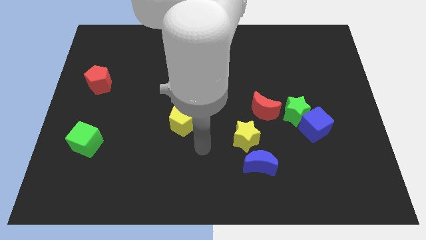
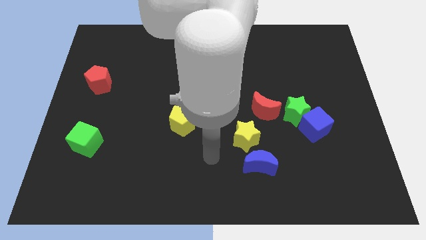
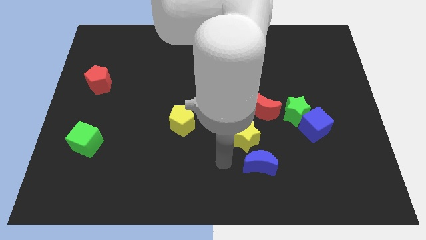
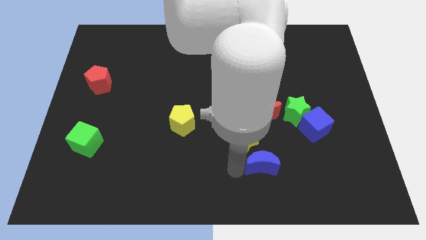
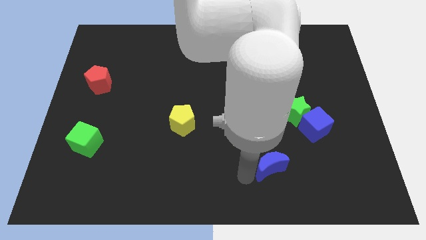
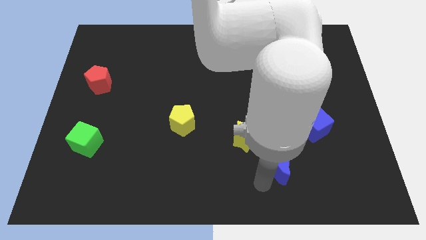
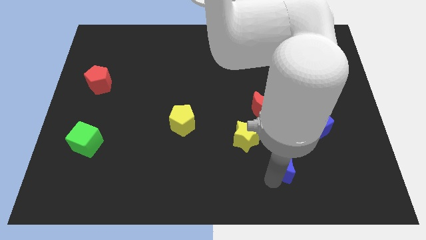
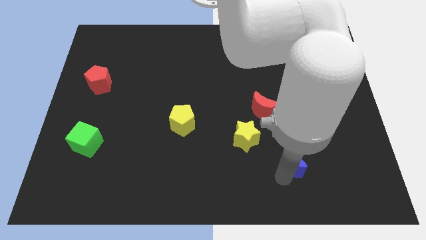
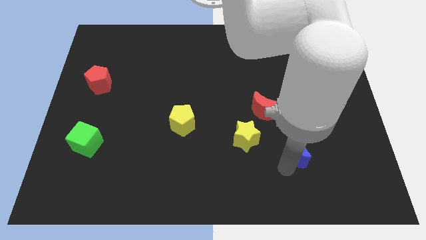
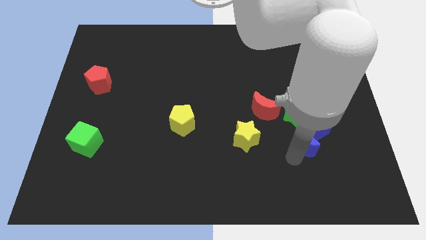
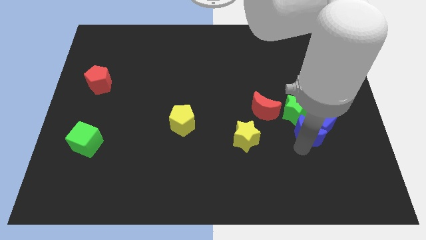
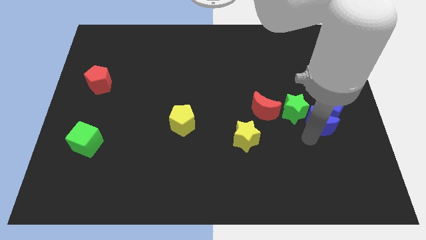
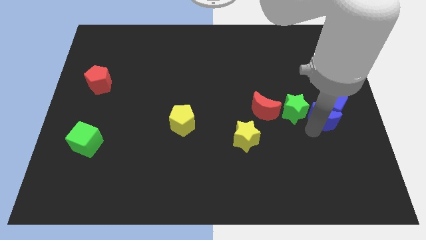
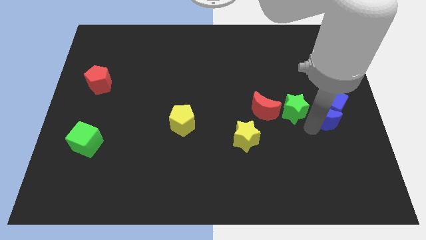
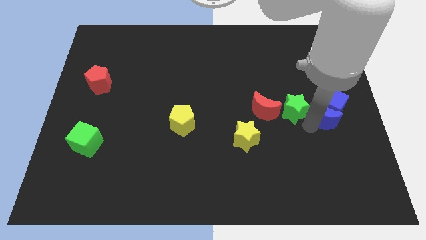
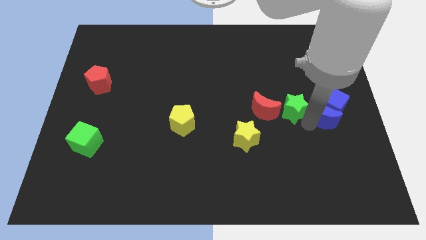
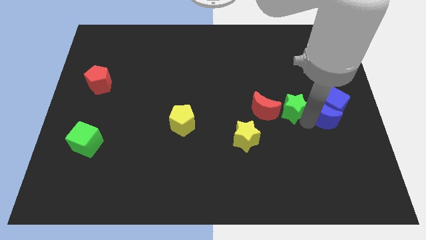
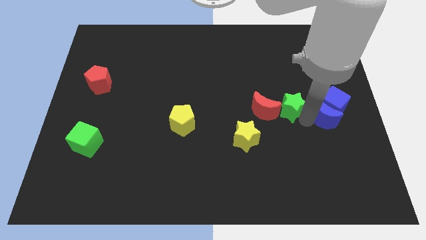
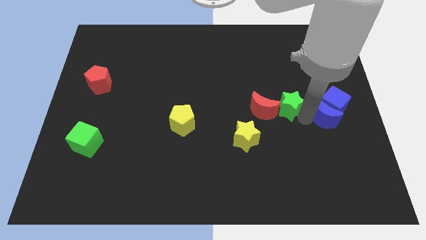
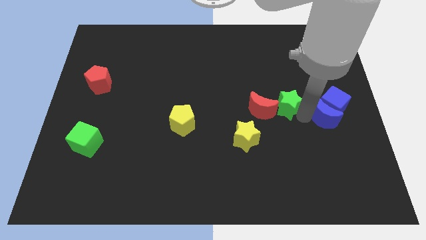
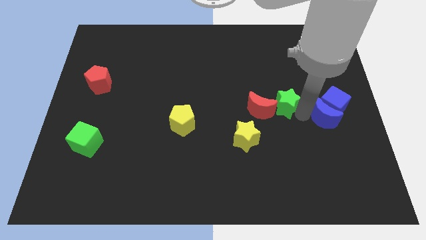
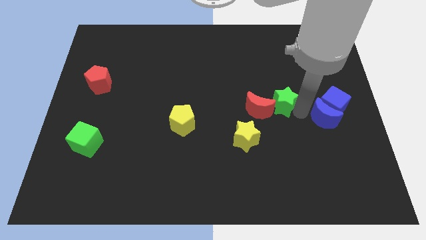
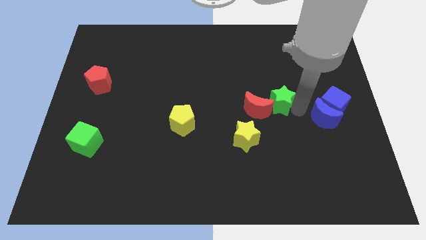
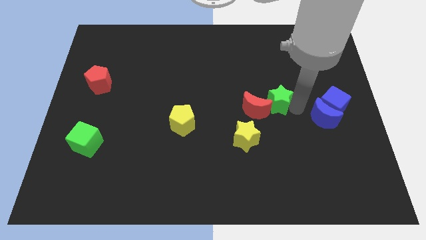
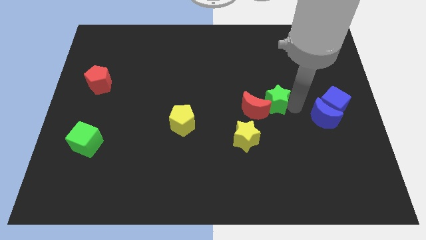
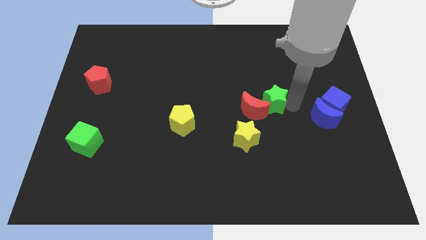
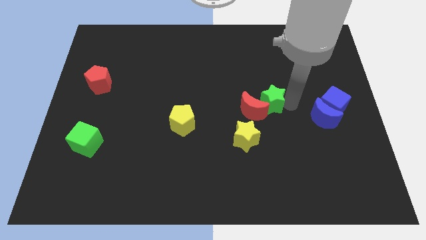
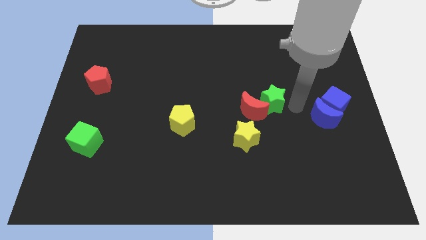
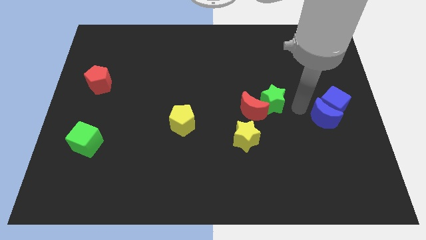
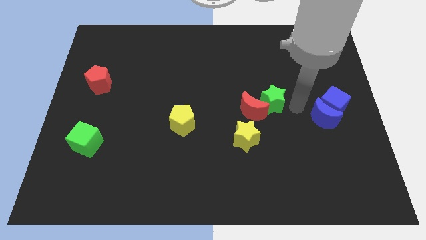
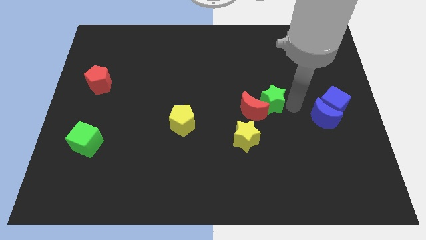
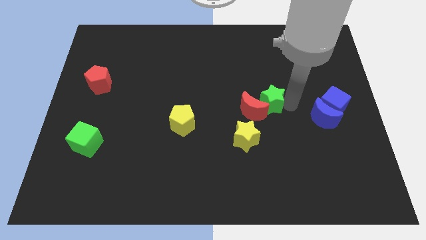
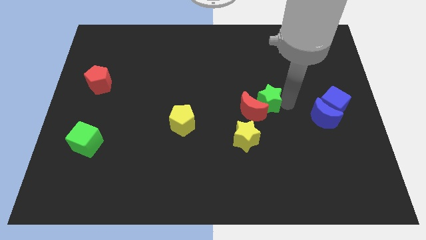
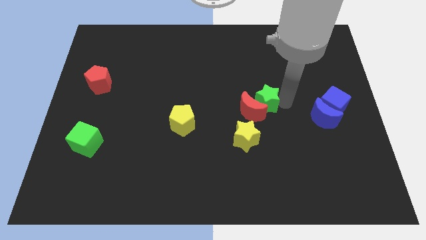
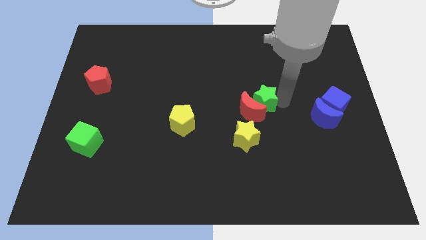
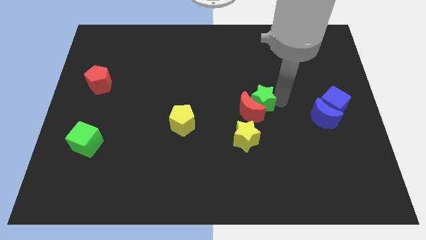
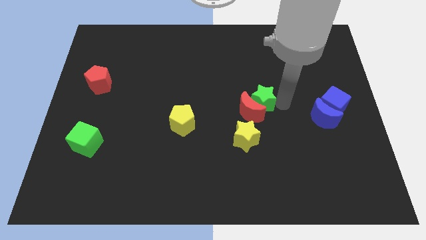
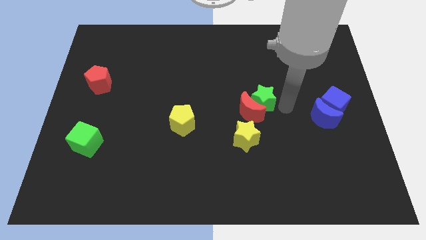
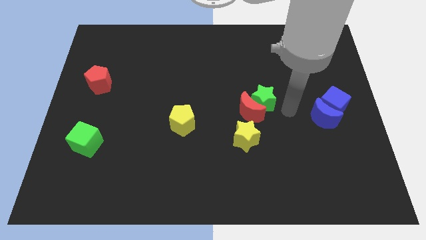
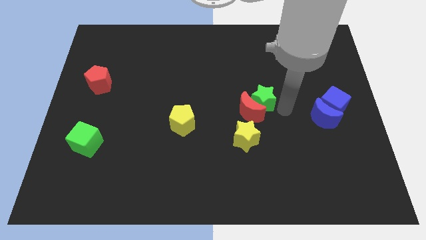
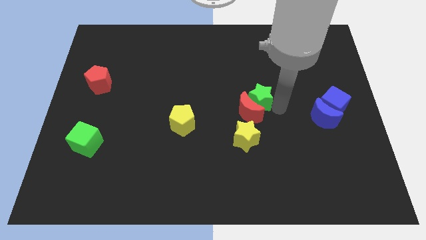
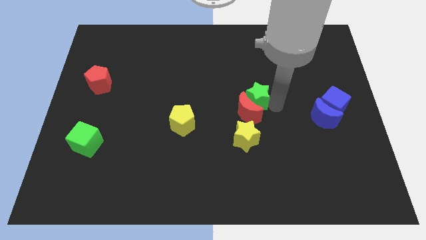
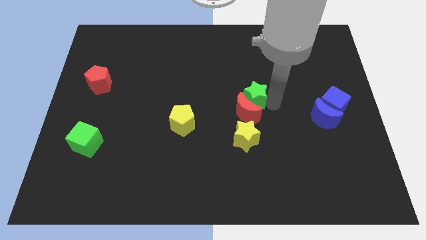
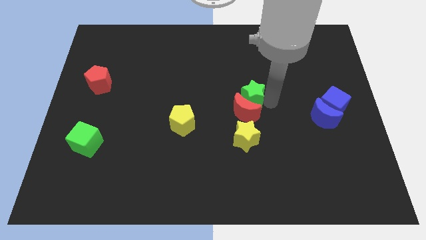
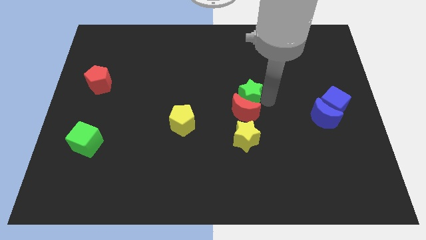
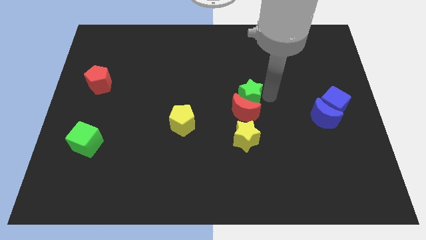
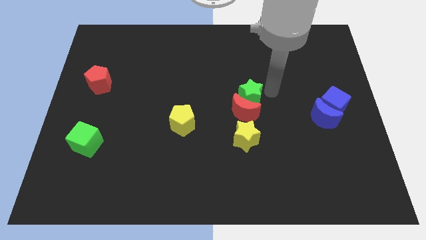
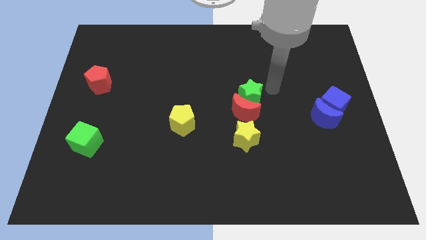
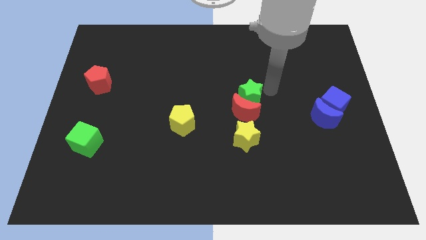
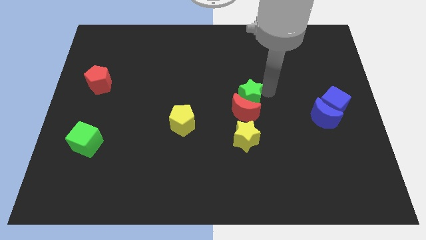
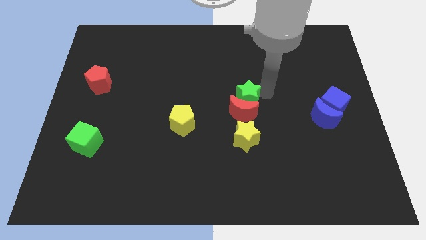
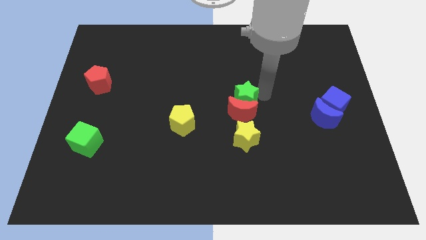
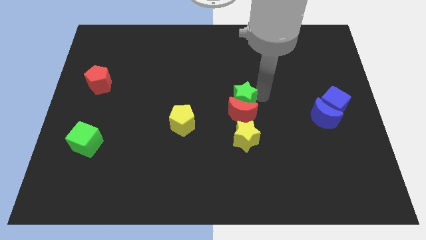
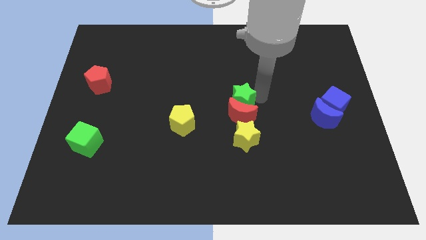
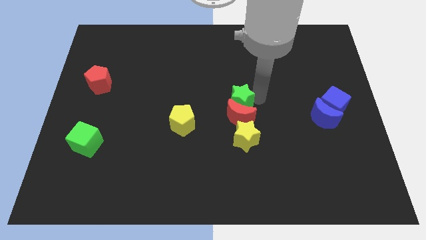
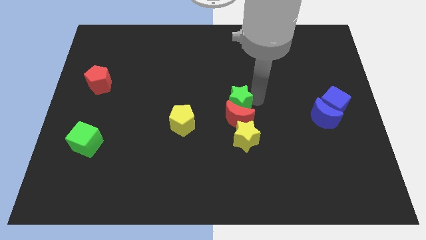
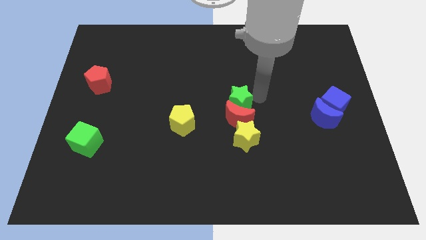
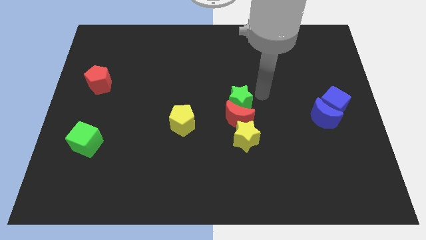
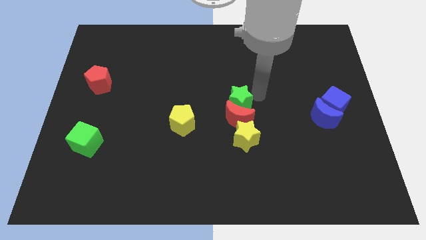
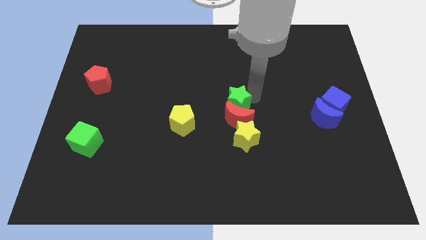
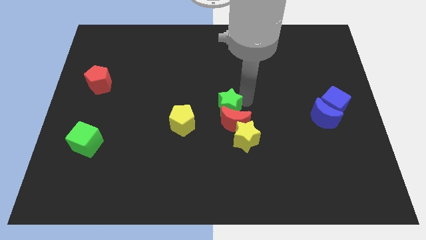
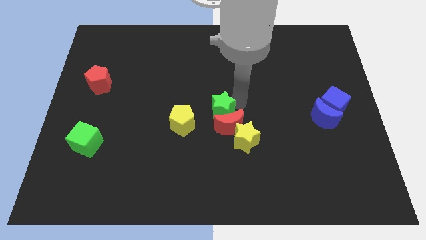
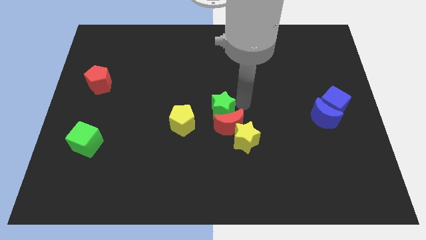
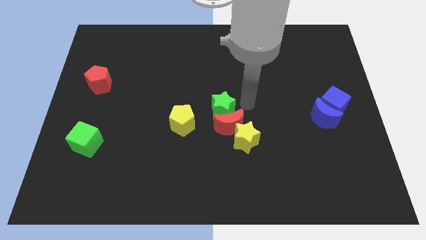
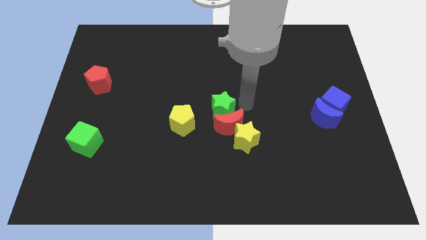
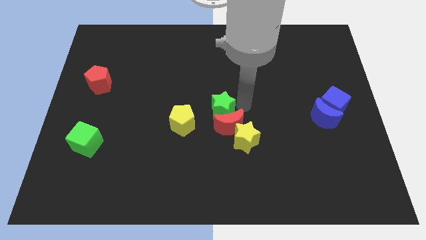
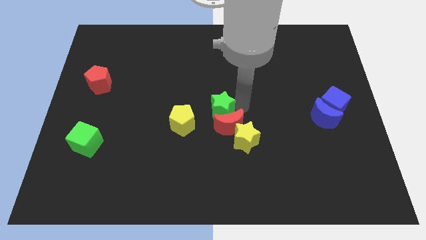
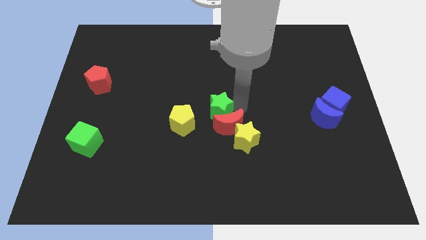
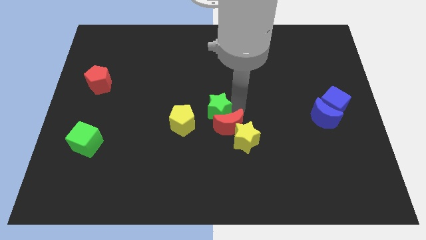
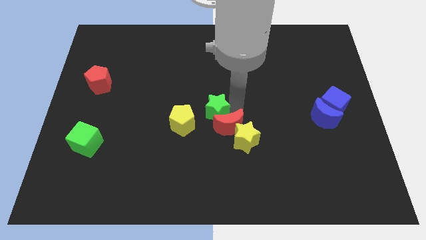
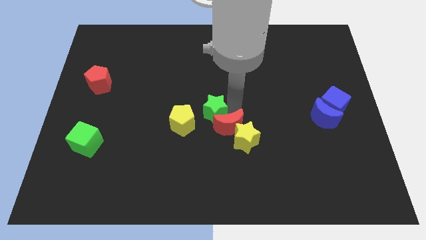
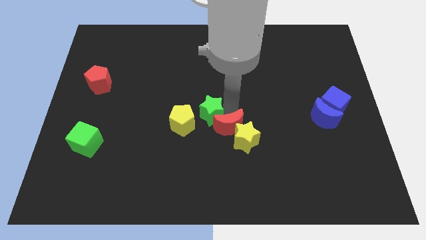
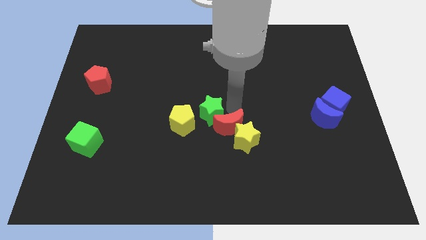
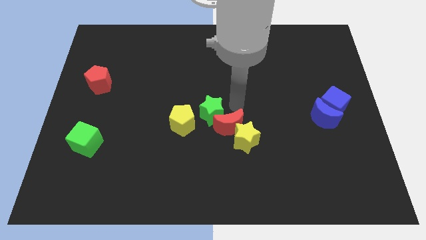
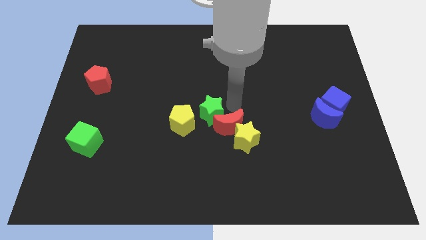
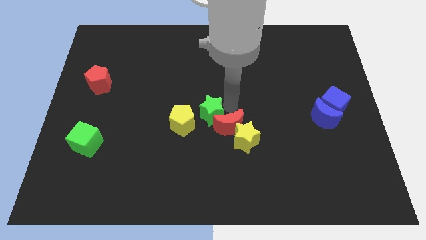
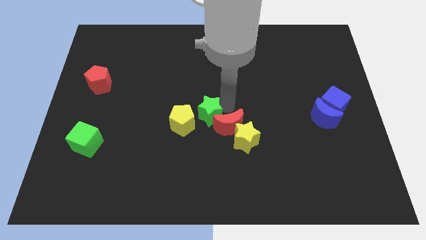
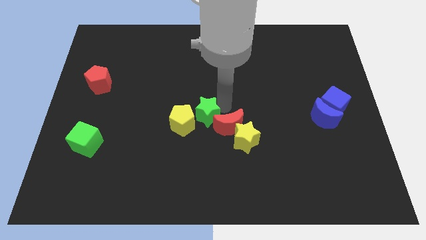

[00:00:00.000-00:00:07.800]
push the green star towards the yellow pentagon
